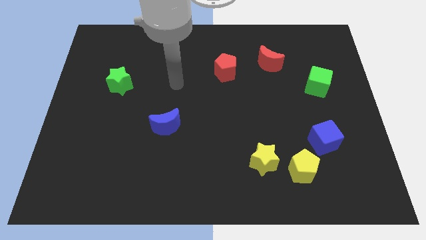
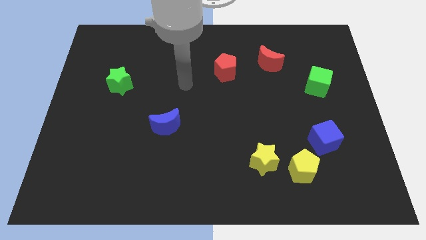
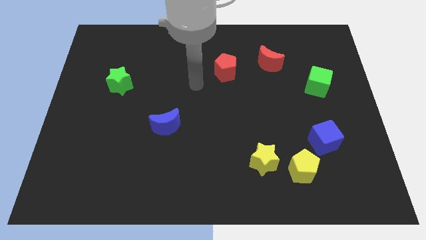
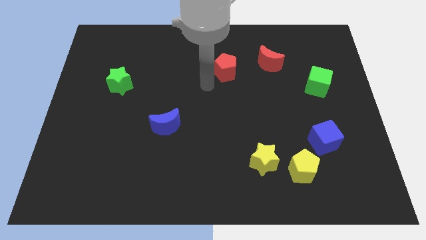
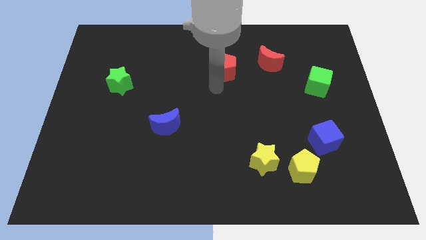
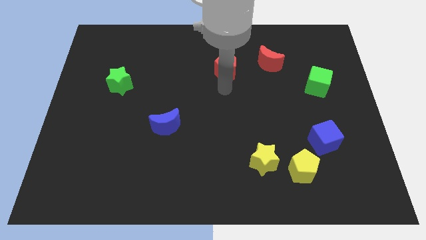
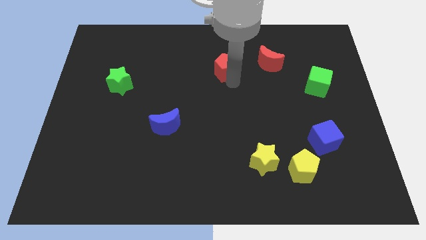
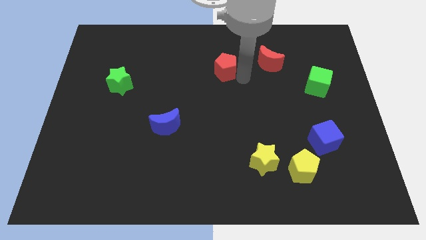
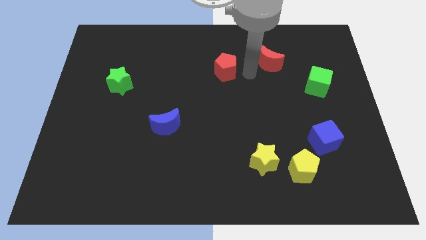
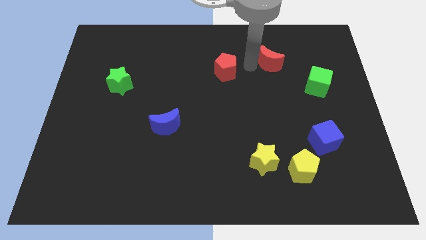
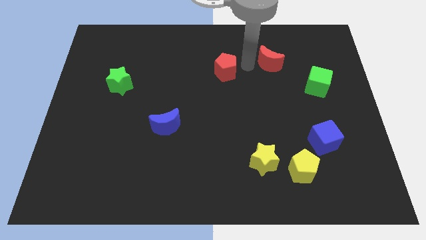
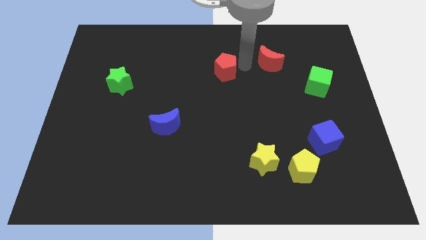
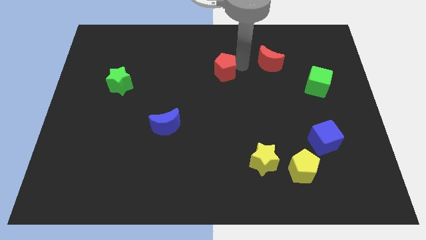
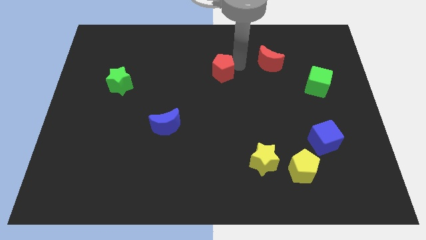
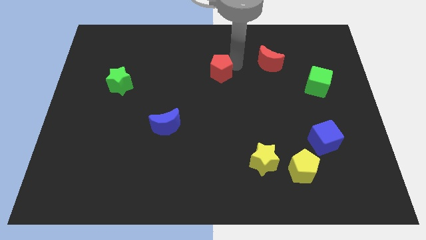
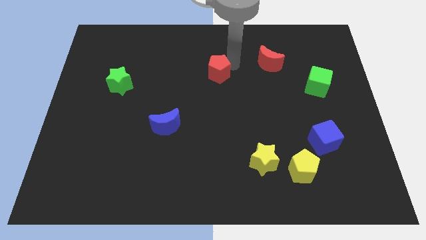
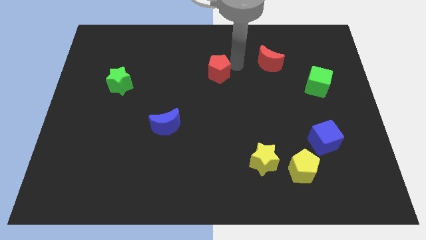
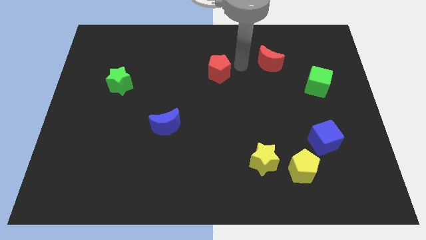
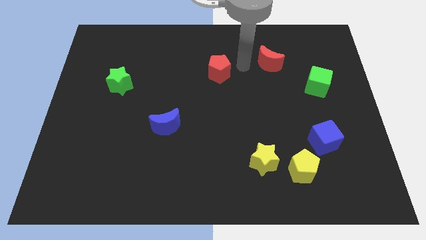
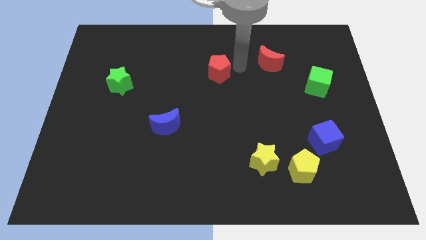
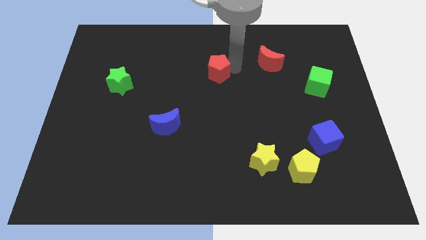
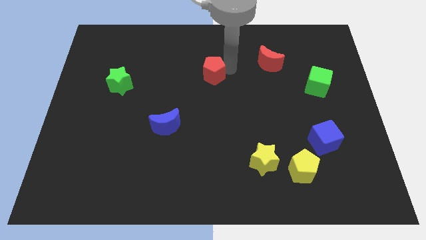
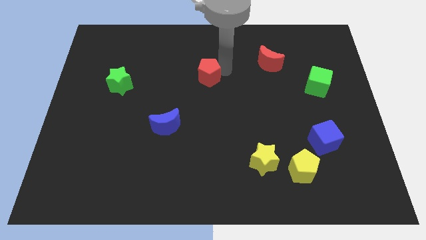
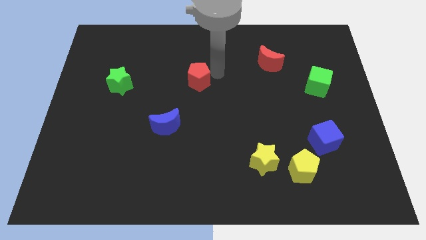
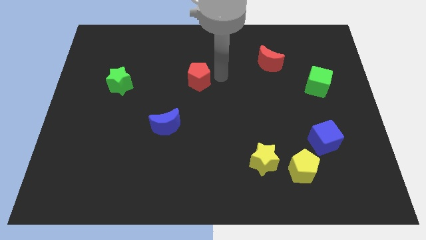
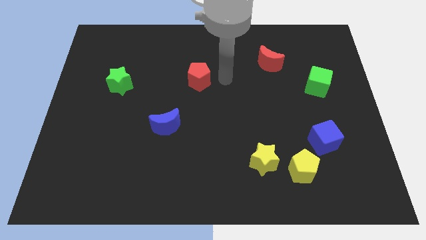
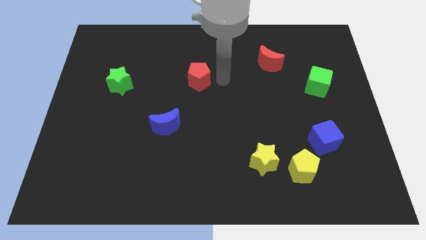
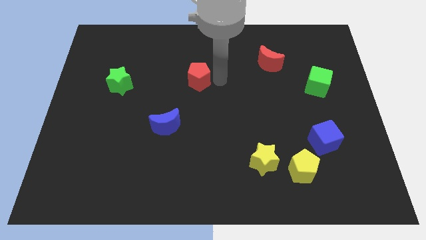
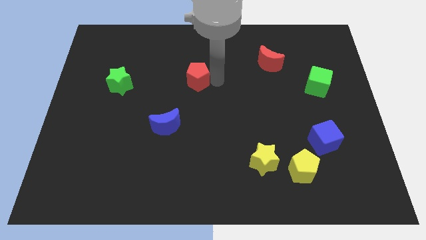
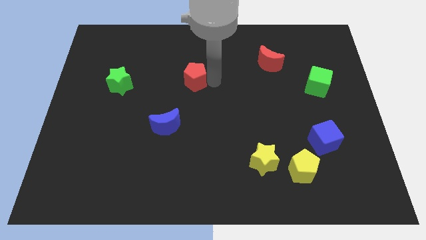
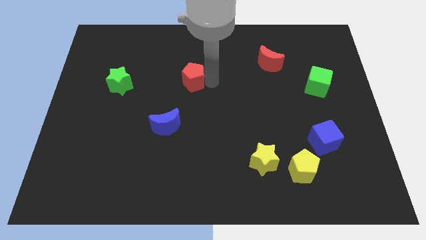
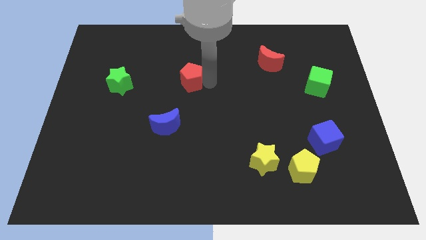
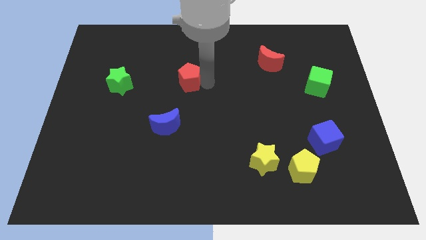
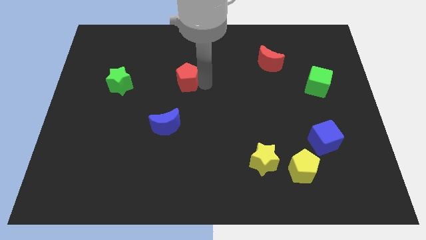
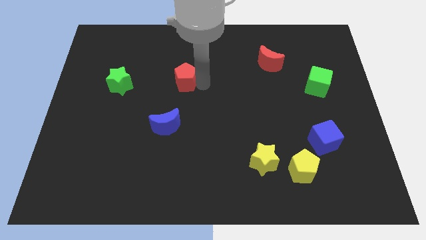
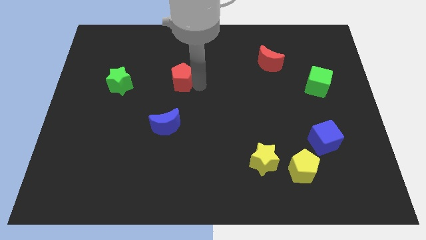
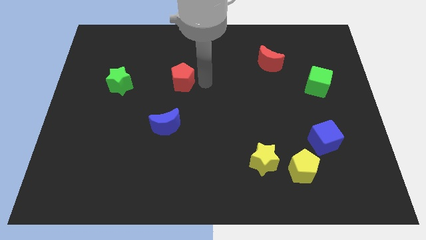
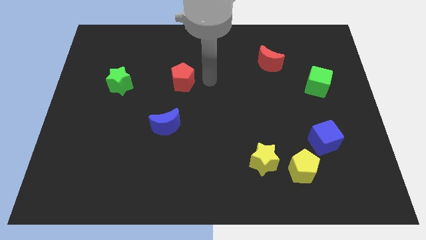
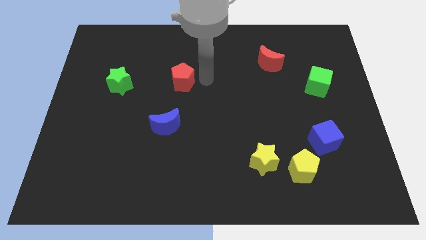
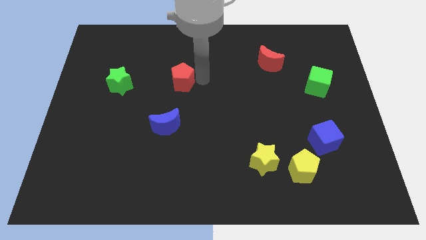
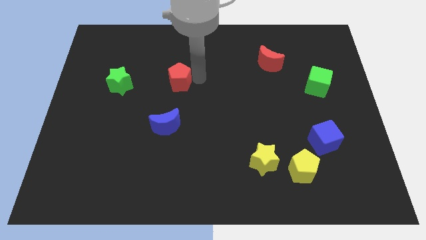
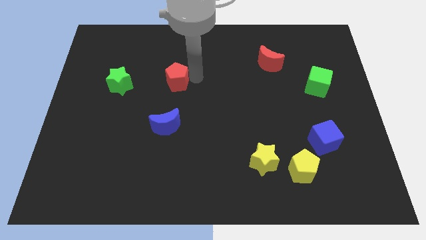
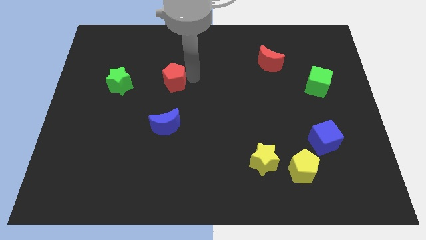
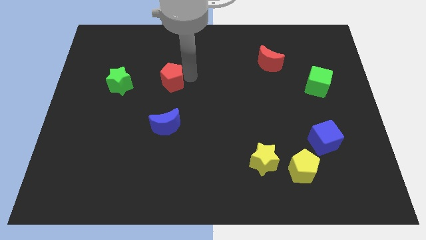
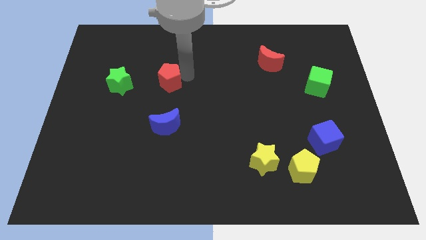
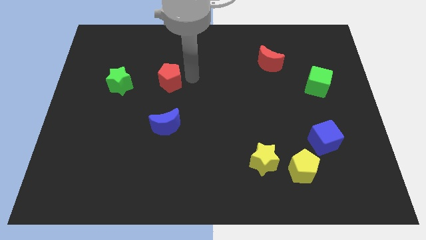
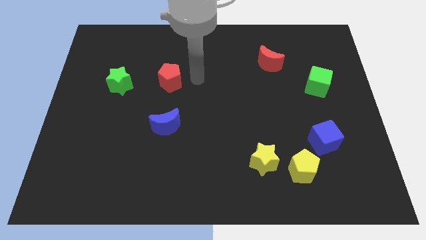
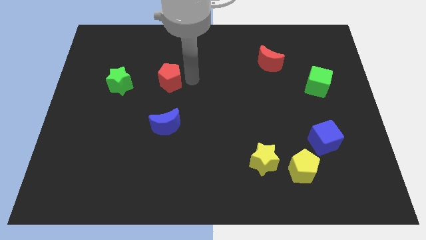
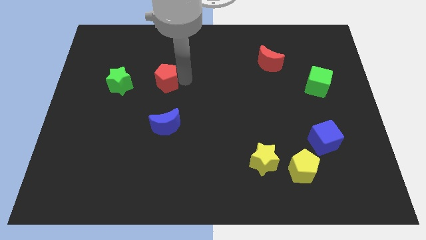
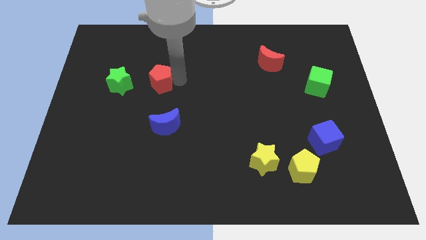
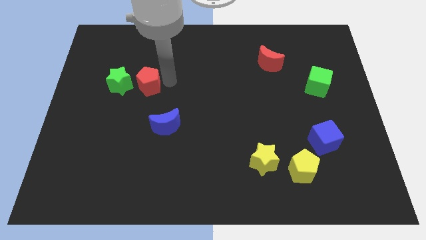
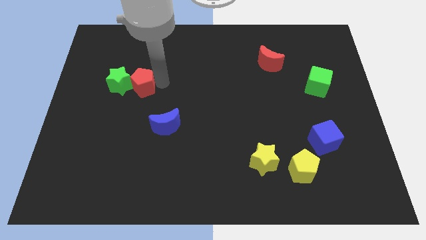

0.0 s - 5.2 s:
move the red pentagon next to the green star

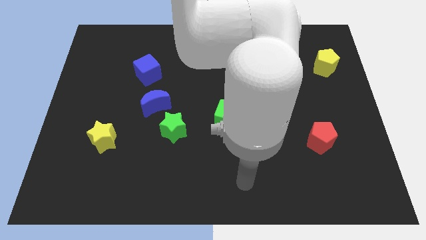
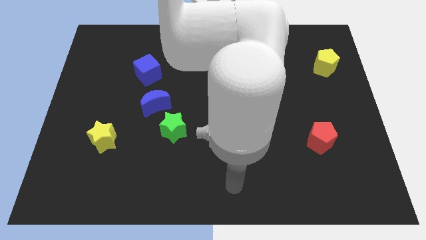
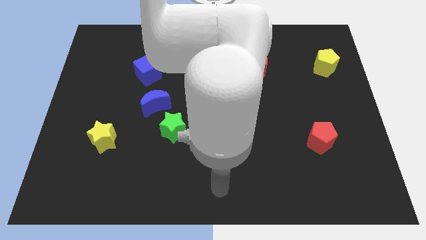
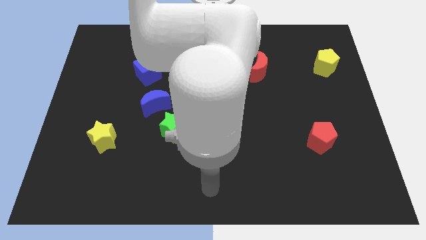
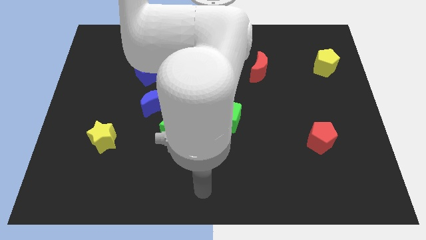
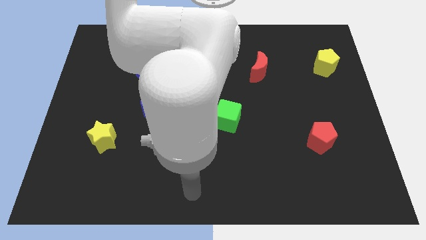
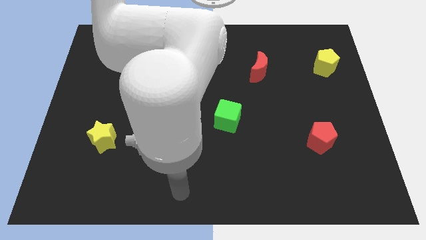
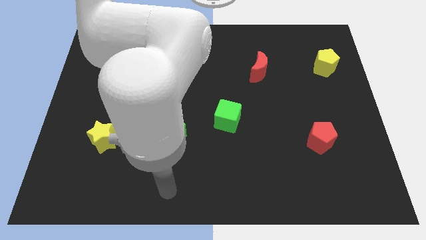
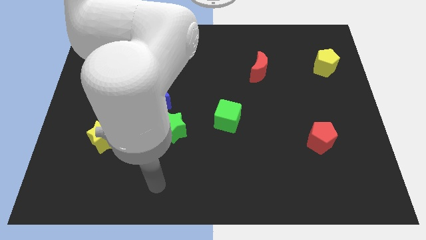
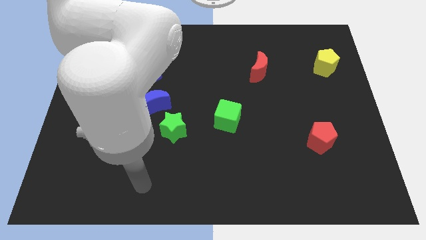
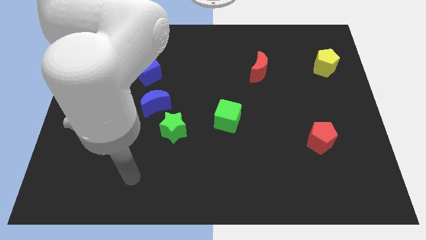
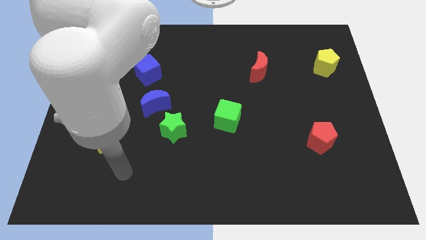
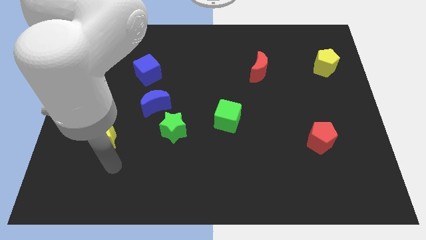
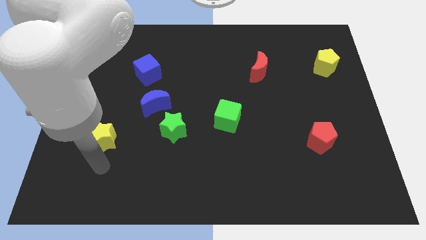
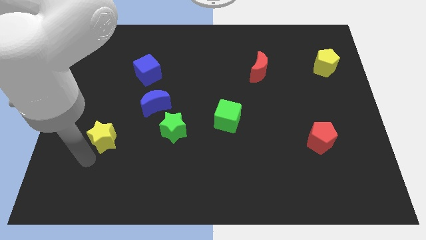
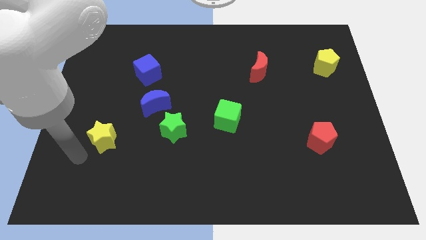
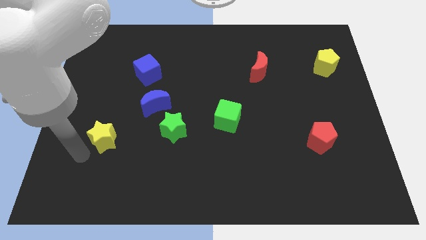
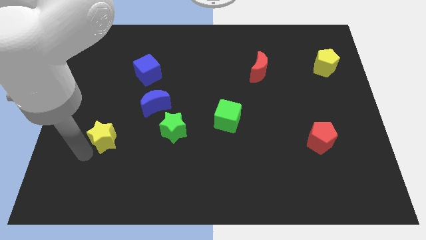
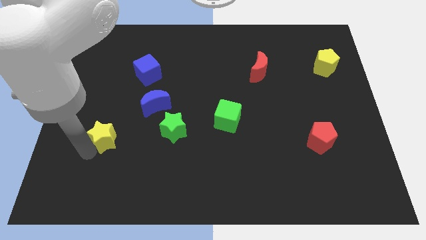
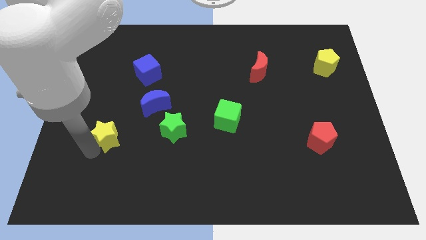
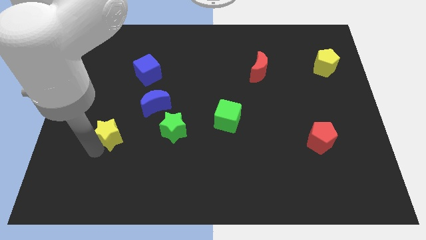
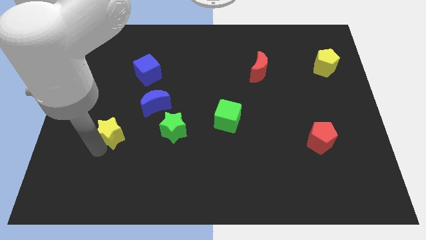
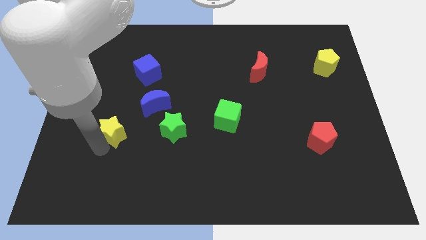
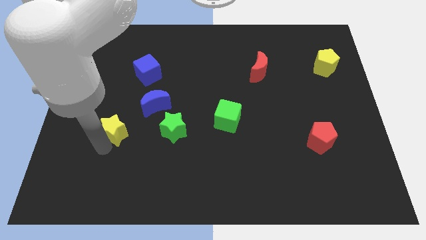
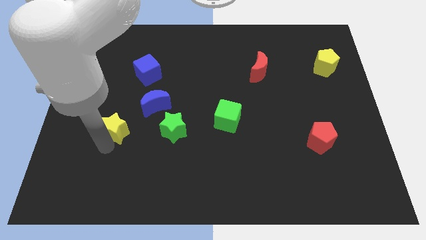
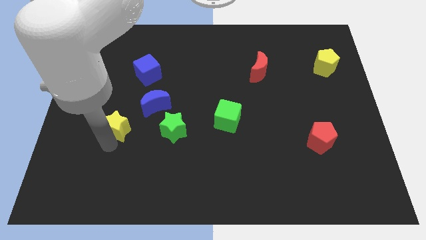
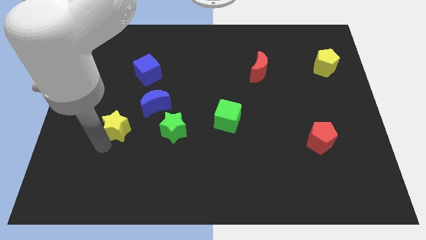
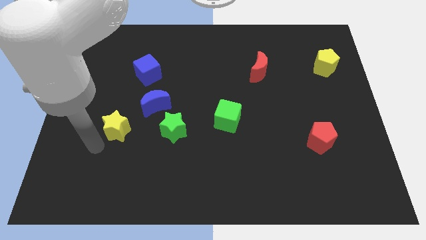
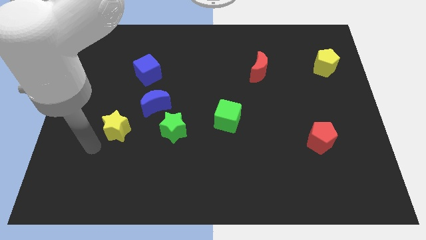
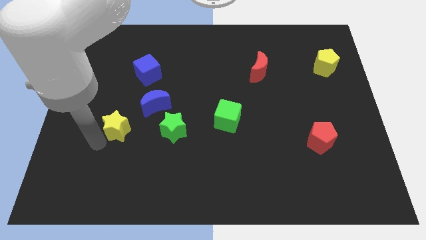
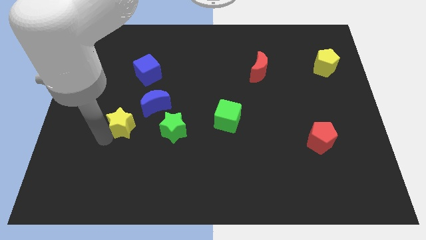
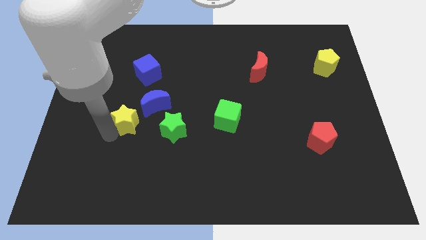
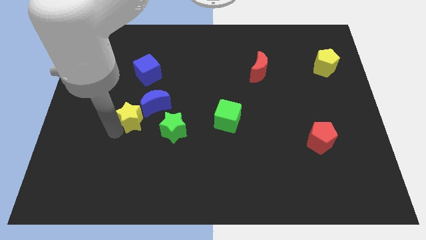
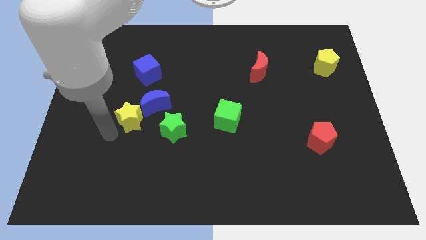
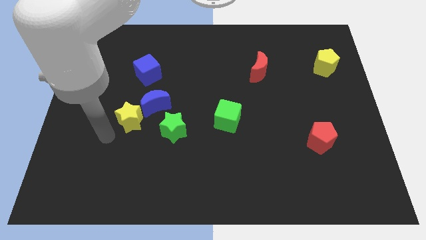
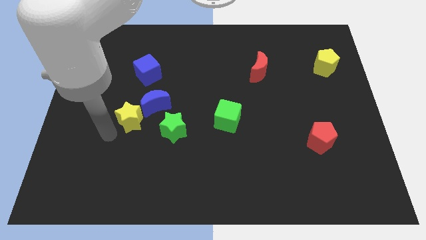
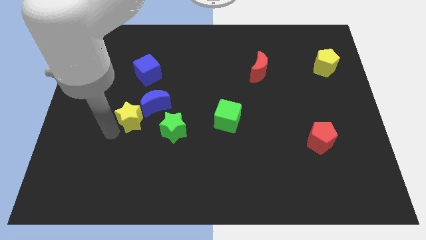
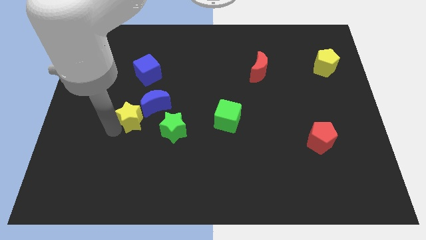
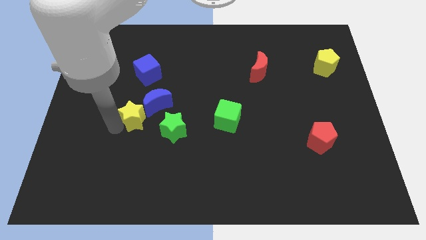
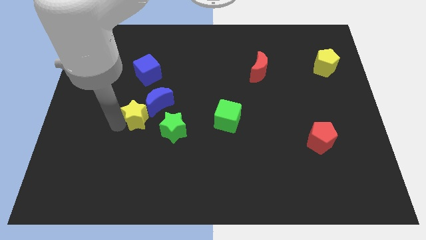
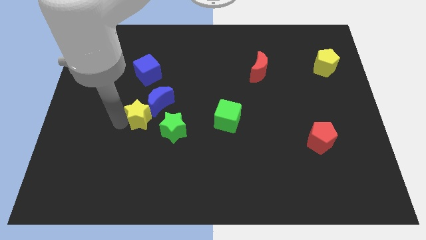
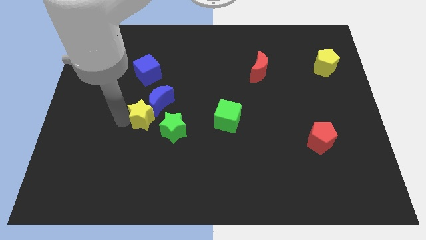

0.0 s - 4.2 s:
slide the yellow star towards the blue moon
